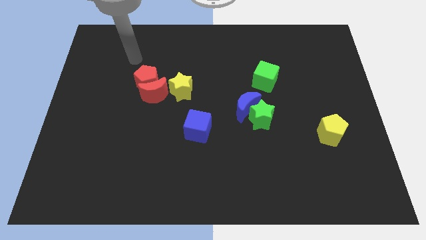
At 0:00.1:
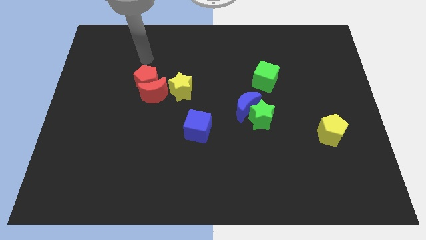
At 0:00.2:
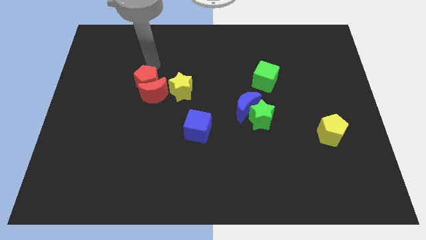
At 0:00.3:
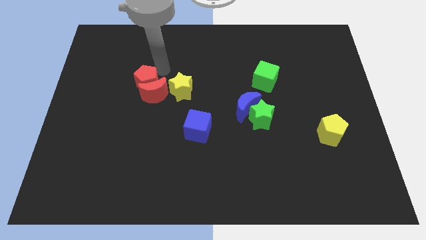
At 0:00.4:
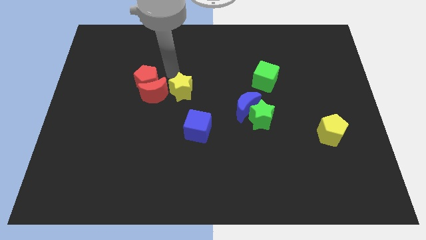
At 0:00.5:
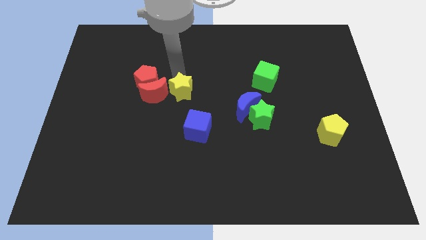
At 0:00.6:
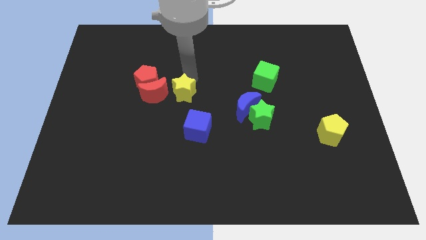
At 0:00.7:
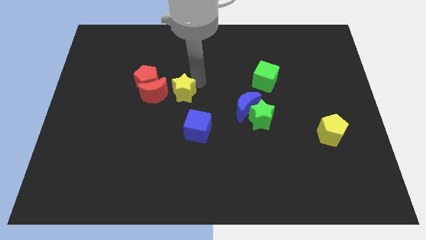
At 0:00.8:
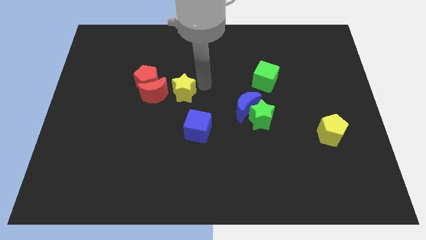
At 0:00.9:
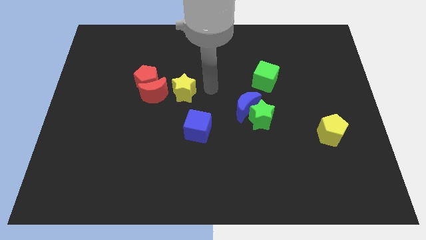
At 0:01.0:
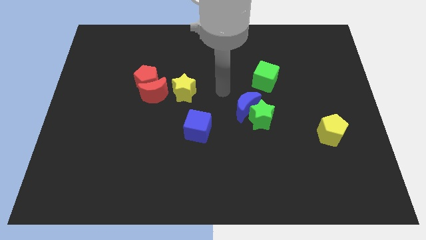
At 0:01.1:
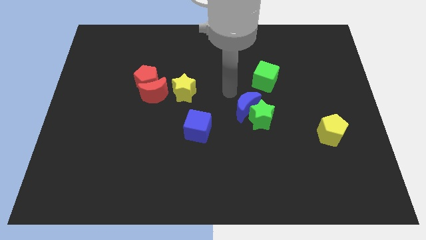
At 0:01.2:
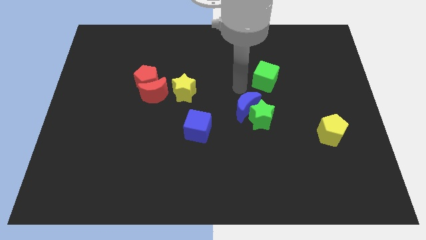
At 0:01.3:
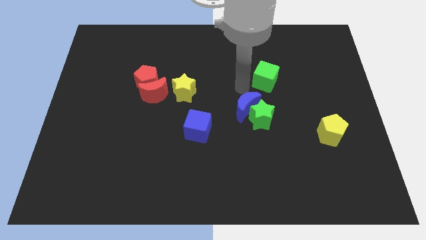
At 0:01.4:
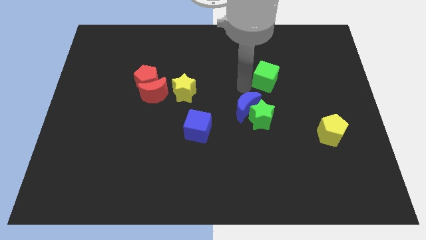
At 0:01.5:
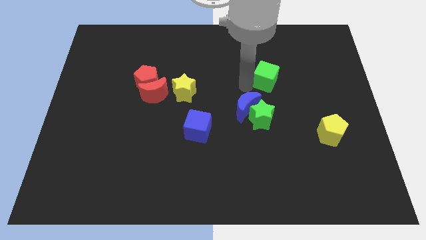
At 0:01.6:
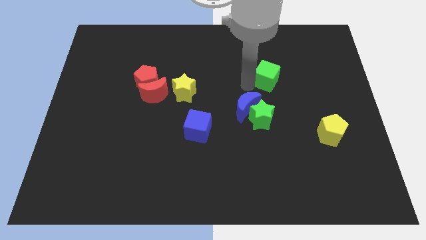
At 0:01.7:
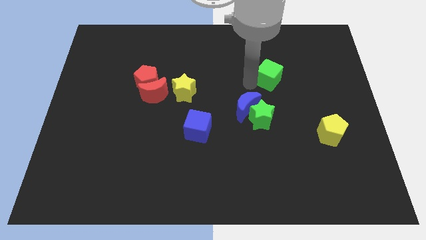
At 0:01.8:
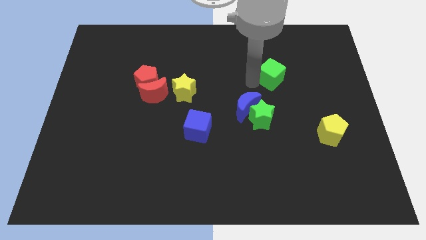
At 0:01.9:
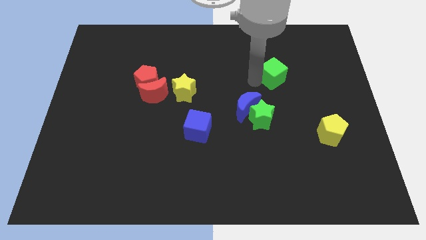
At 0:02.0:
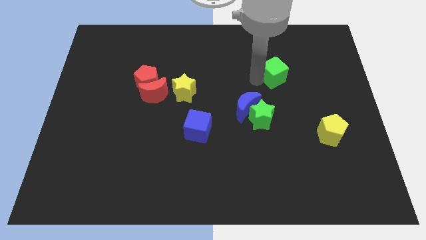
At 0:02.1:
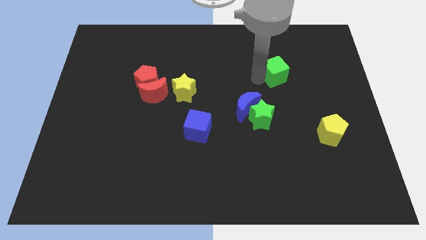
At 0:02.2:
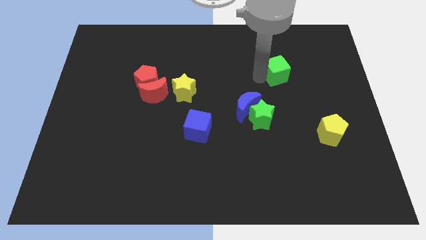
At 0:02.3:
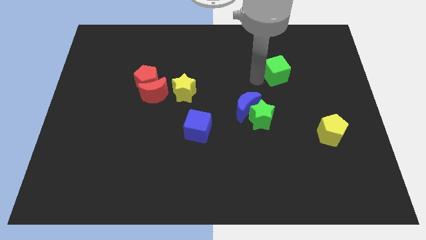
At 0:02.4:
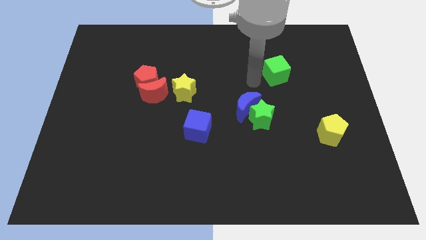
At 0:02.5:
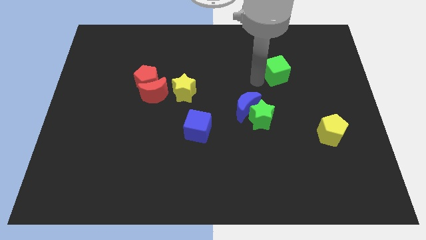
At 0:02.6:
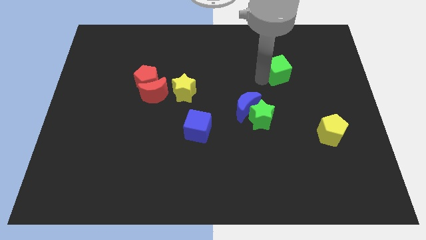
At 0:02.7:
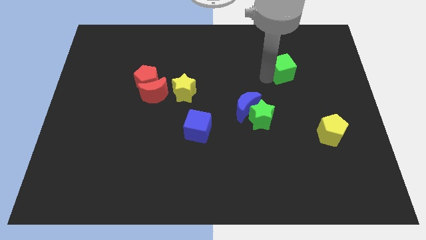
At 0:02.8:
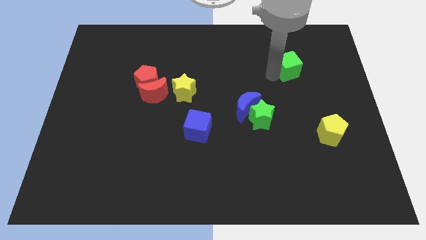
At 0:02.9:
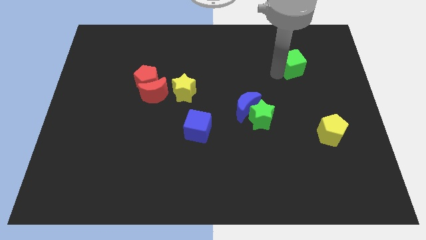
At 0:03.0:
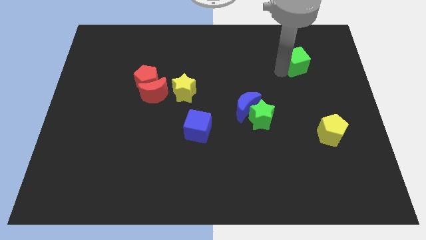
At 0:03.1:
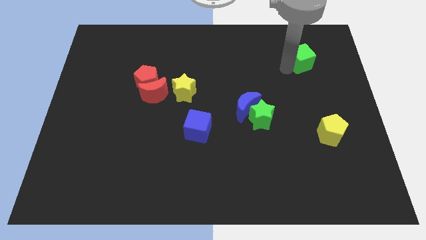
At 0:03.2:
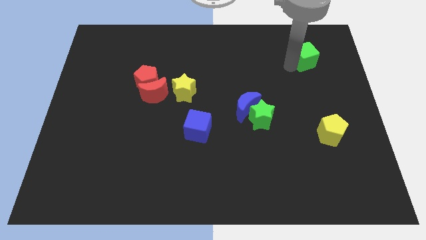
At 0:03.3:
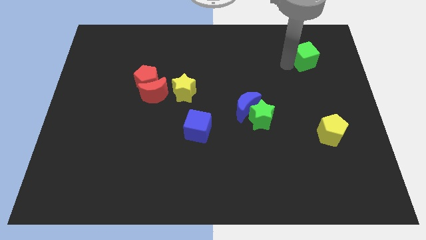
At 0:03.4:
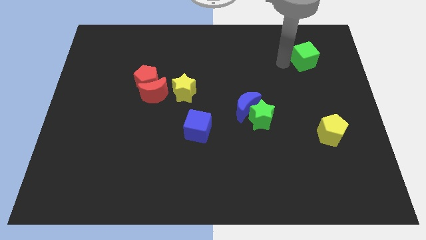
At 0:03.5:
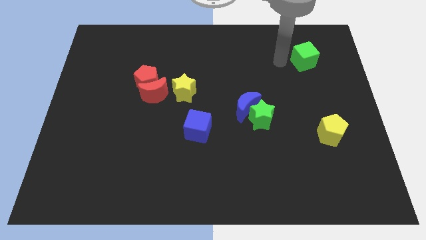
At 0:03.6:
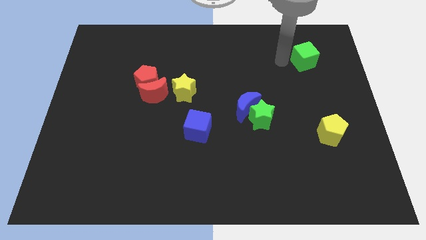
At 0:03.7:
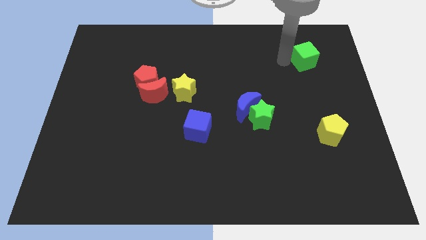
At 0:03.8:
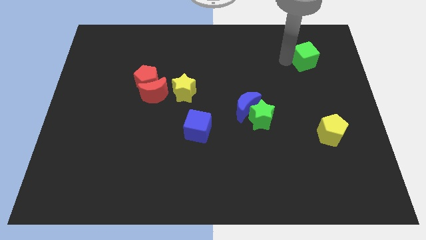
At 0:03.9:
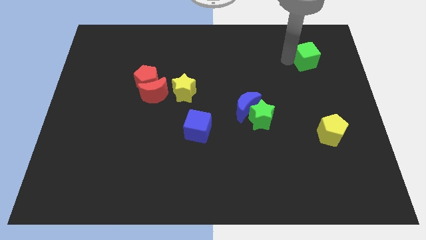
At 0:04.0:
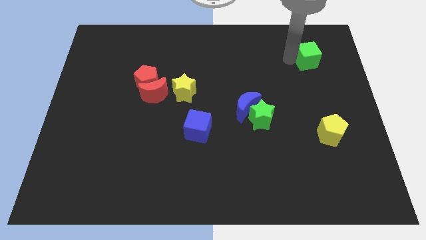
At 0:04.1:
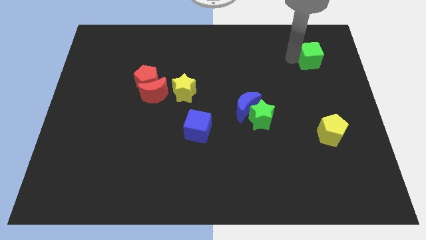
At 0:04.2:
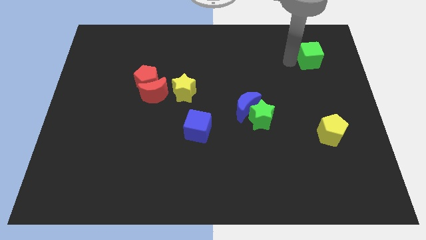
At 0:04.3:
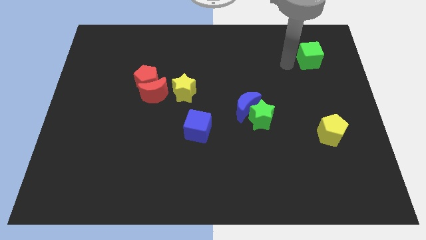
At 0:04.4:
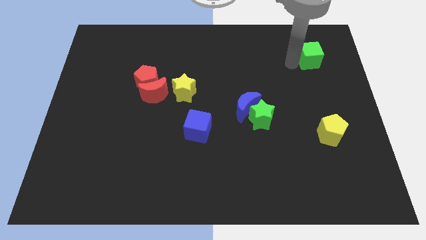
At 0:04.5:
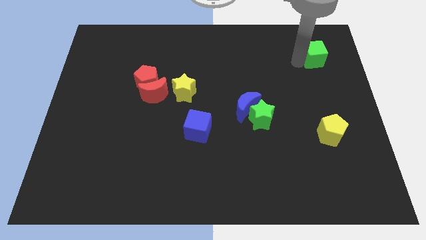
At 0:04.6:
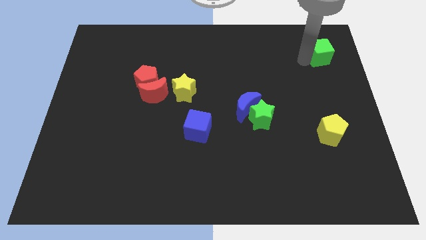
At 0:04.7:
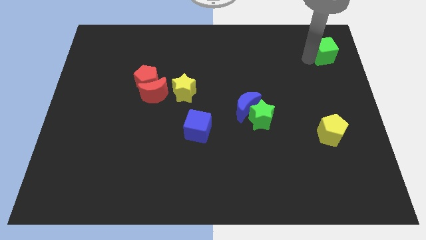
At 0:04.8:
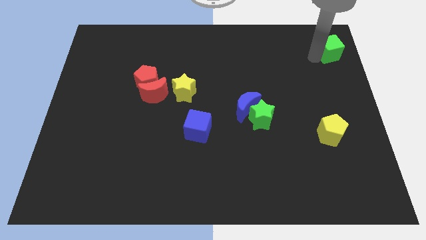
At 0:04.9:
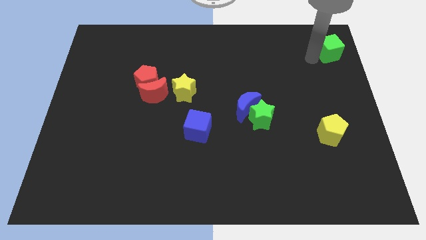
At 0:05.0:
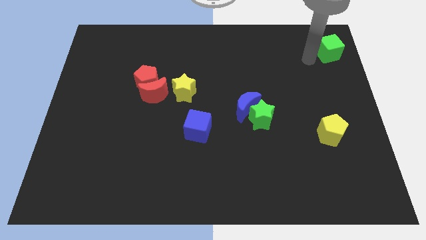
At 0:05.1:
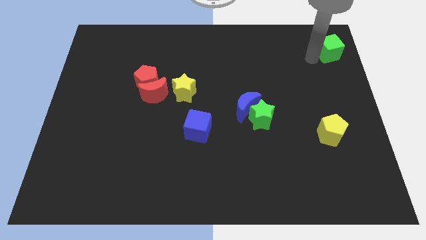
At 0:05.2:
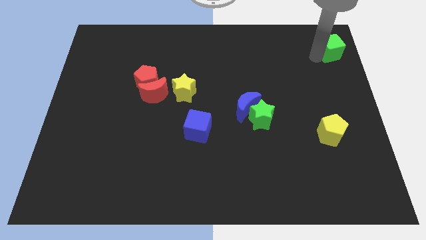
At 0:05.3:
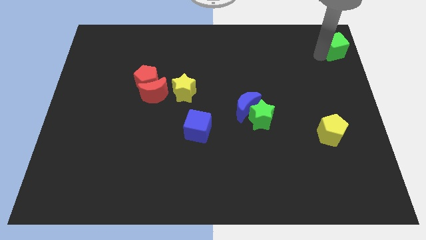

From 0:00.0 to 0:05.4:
slide the green cube to the top right

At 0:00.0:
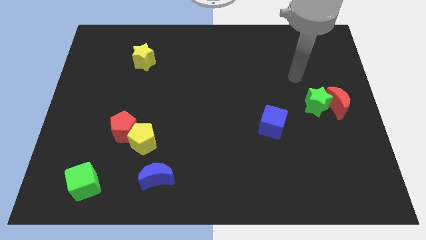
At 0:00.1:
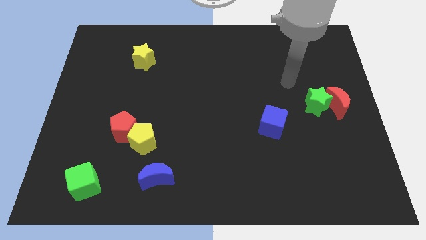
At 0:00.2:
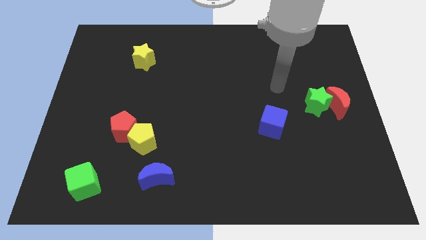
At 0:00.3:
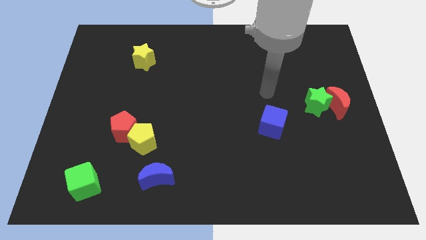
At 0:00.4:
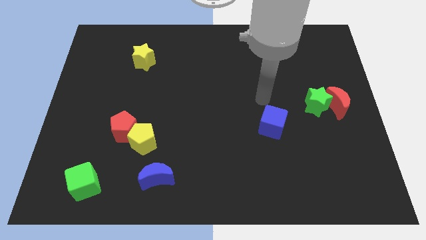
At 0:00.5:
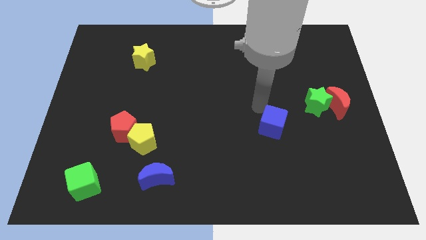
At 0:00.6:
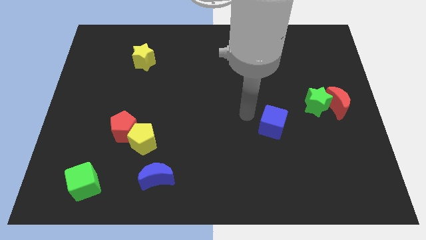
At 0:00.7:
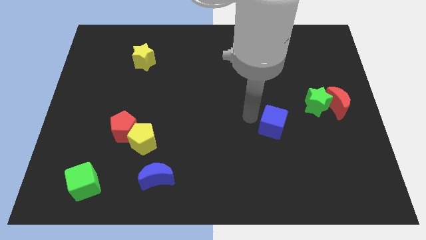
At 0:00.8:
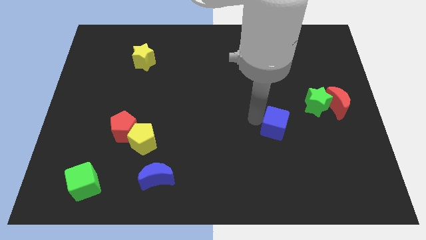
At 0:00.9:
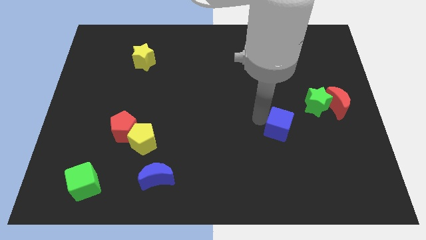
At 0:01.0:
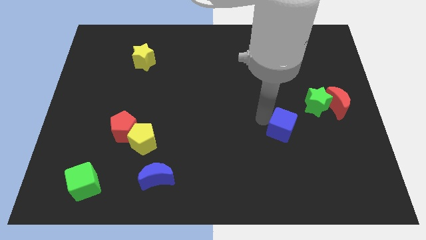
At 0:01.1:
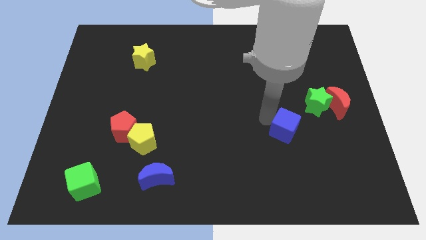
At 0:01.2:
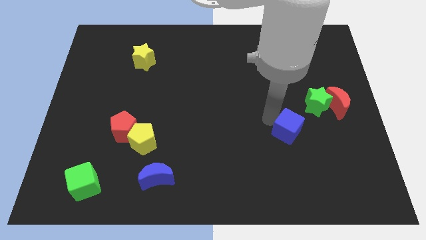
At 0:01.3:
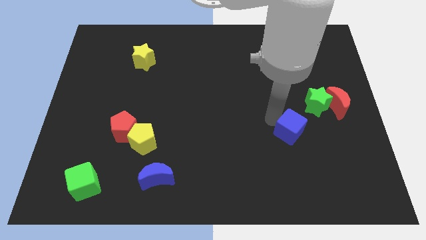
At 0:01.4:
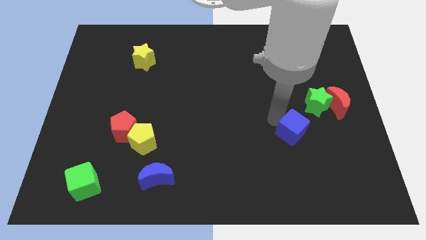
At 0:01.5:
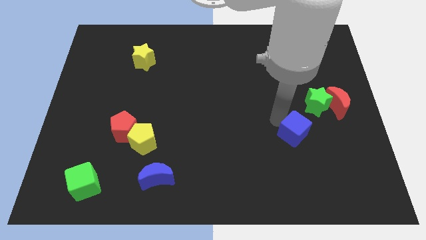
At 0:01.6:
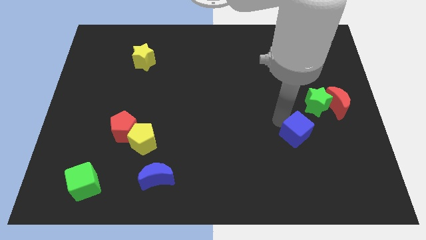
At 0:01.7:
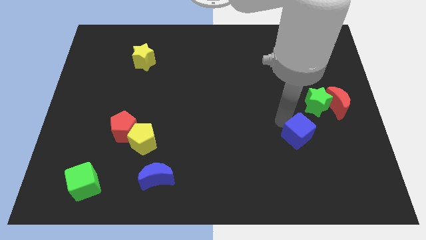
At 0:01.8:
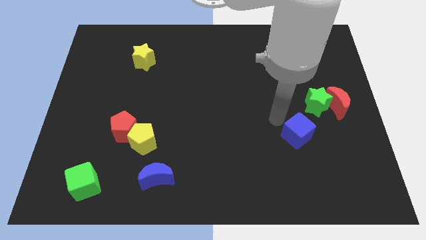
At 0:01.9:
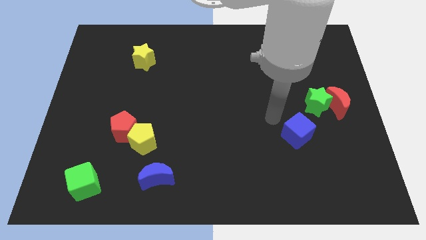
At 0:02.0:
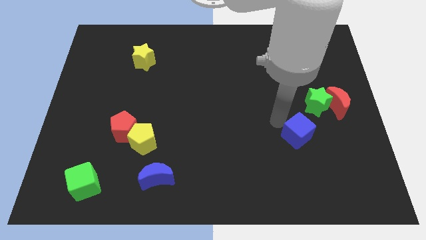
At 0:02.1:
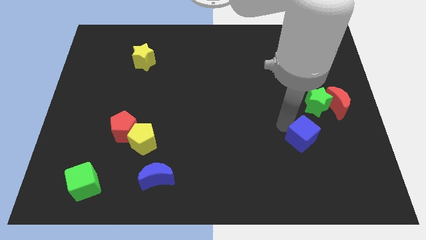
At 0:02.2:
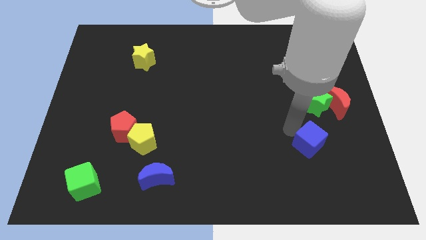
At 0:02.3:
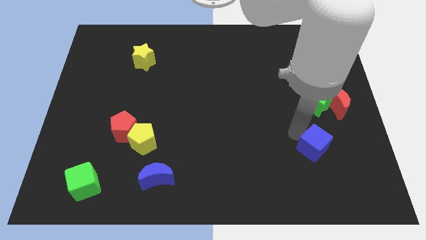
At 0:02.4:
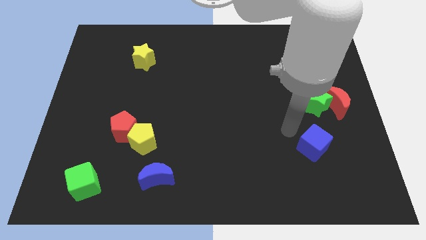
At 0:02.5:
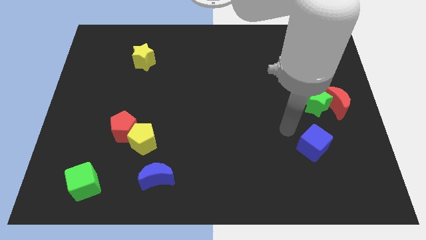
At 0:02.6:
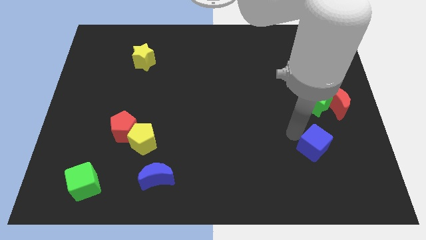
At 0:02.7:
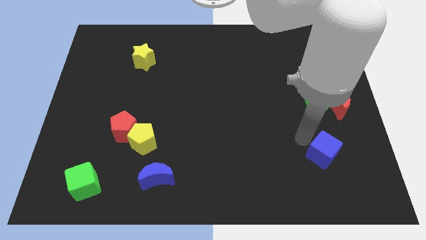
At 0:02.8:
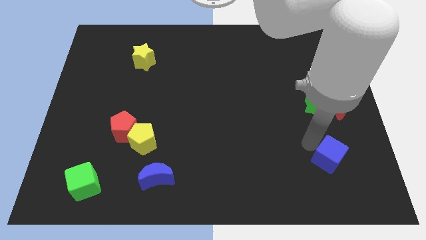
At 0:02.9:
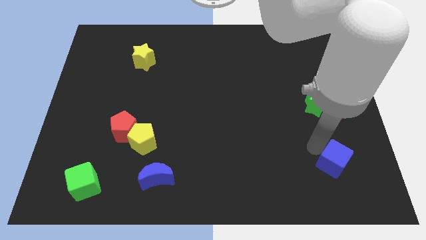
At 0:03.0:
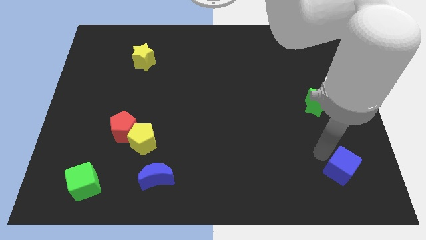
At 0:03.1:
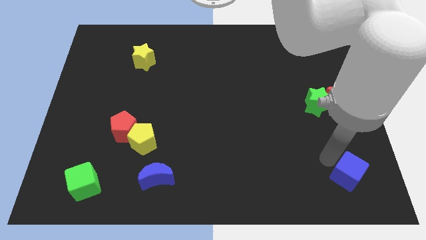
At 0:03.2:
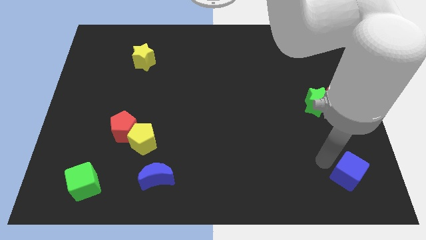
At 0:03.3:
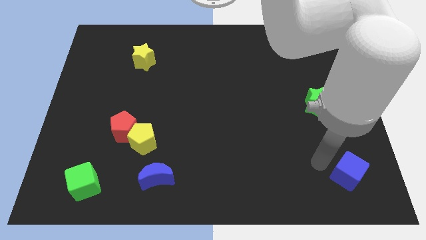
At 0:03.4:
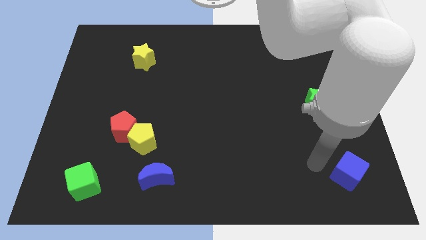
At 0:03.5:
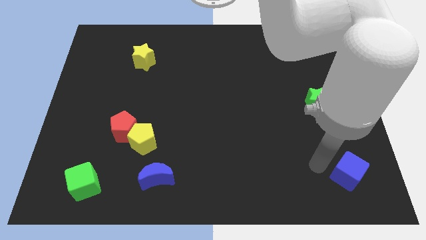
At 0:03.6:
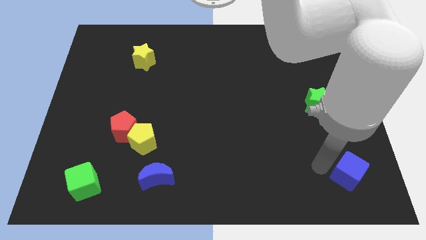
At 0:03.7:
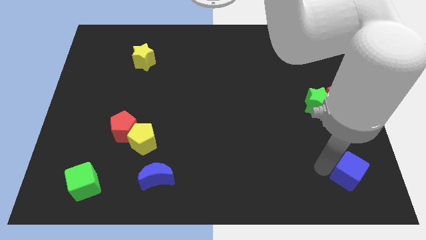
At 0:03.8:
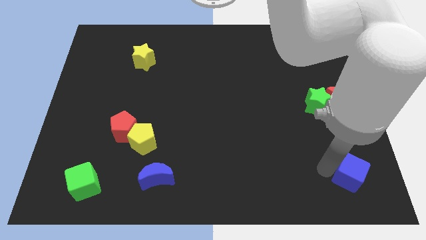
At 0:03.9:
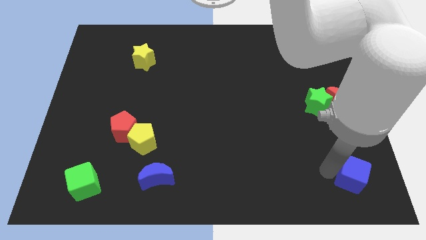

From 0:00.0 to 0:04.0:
move the blue cube to the lower right corner
